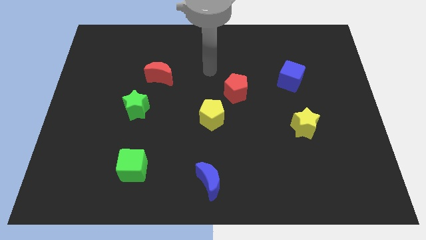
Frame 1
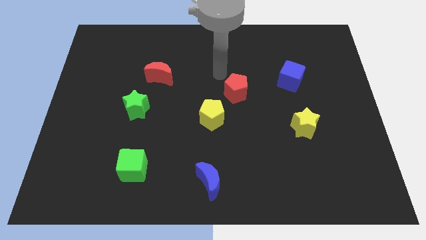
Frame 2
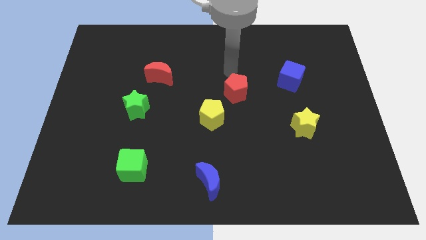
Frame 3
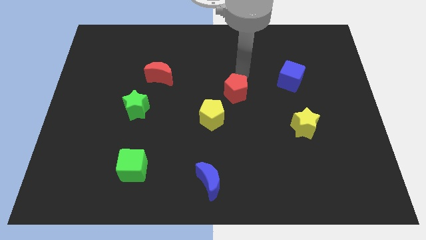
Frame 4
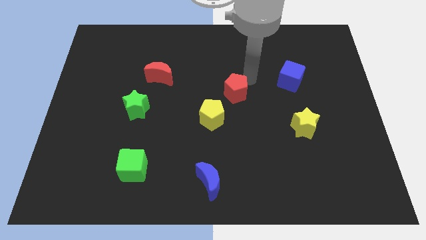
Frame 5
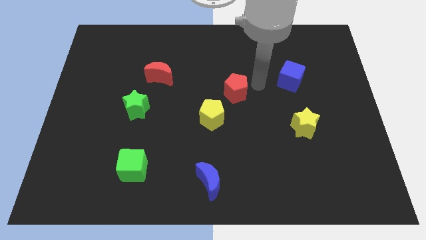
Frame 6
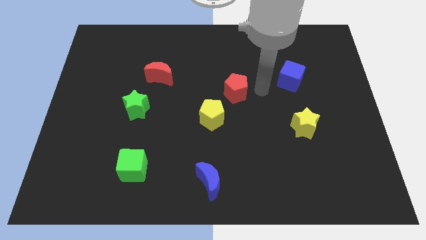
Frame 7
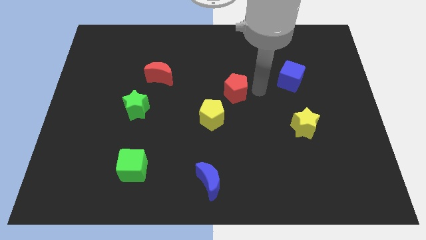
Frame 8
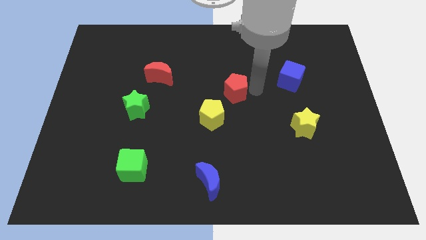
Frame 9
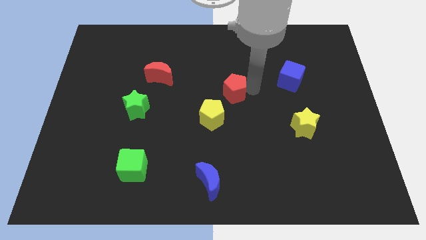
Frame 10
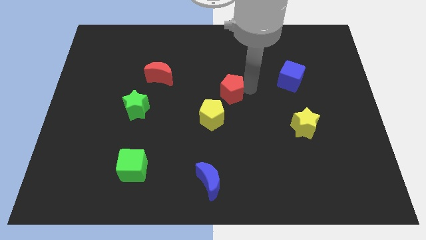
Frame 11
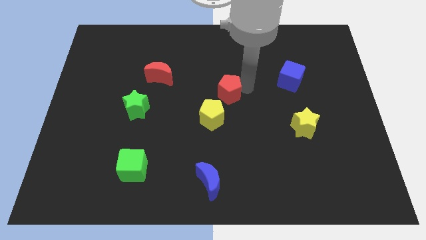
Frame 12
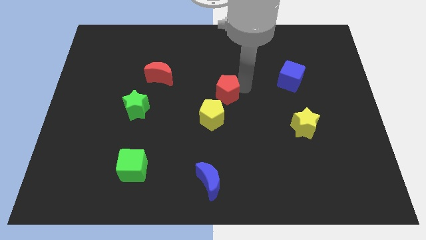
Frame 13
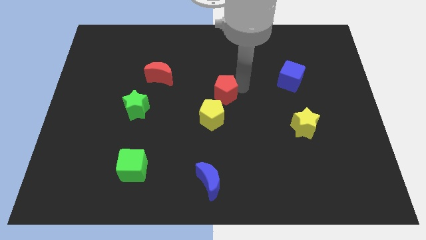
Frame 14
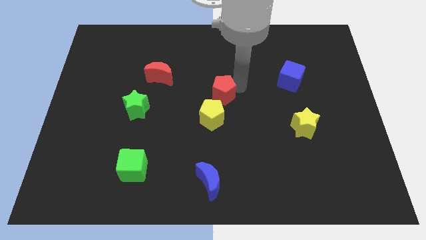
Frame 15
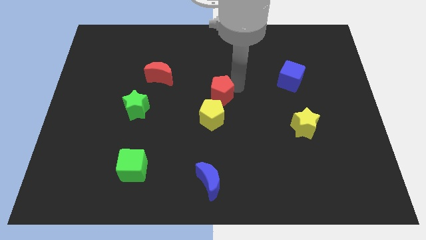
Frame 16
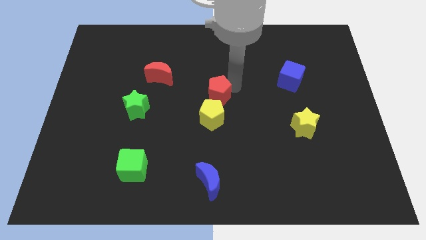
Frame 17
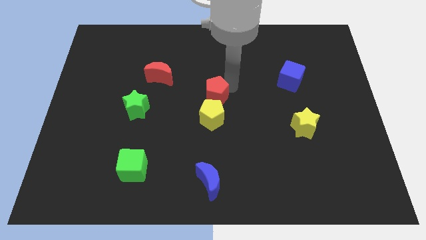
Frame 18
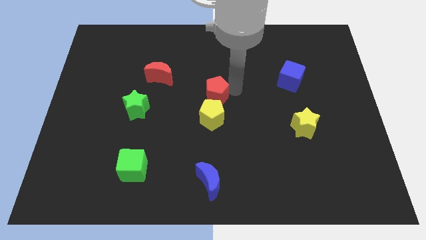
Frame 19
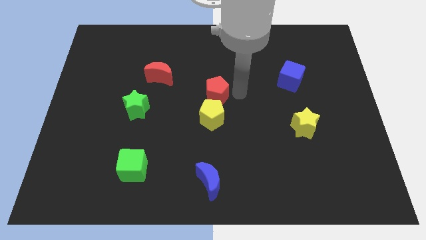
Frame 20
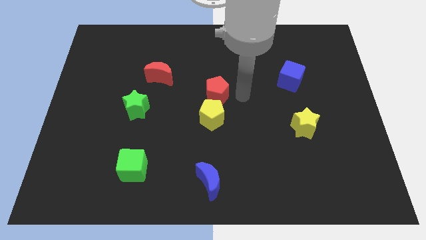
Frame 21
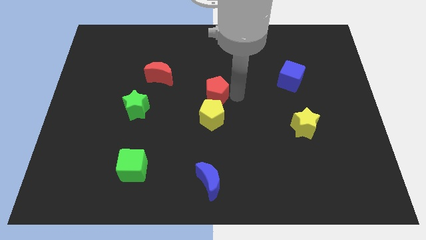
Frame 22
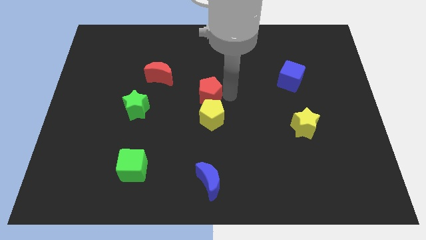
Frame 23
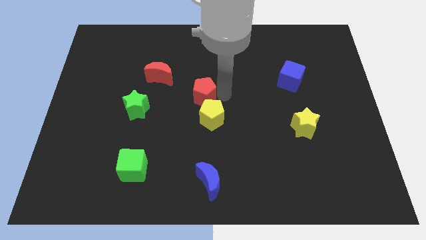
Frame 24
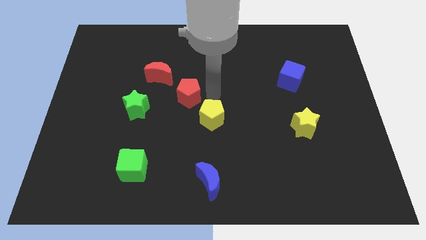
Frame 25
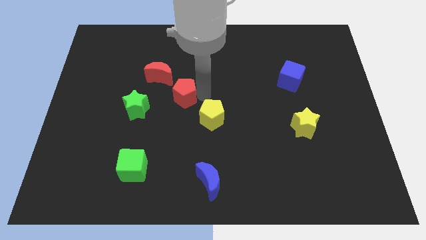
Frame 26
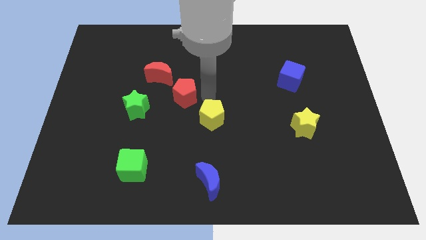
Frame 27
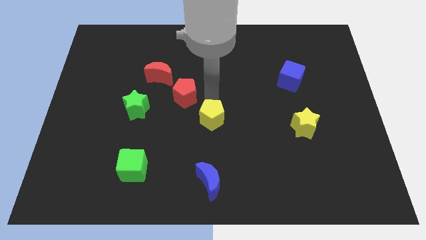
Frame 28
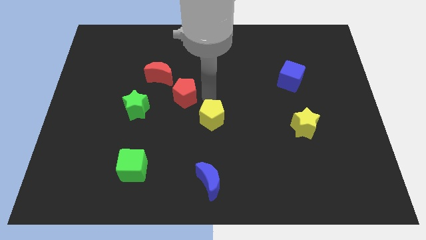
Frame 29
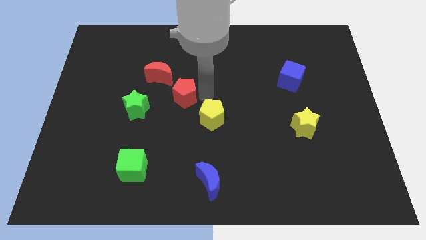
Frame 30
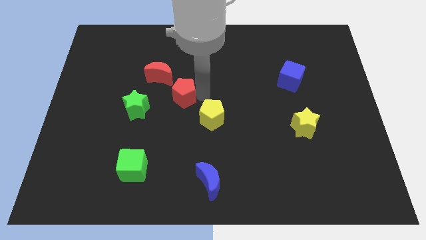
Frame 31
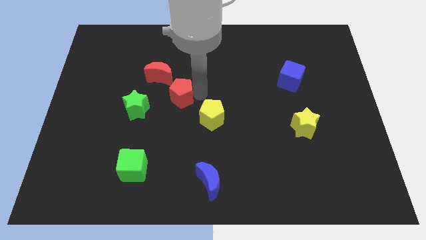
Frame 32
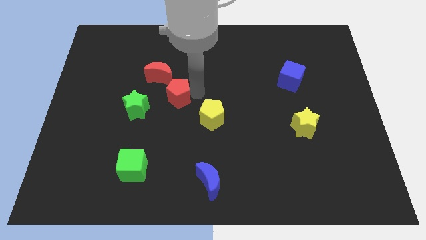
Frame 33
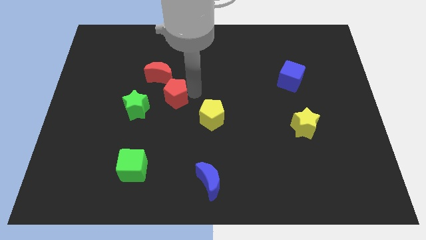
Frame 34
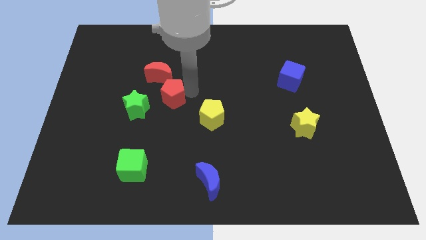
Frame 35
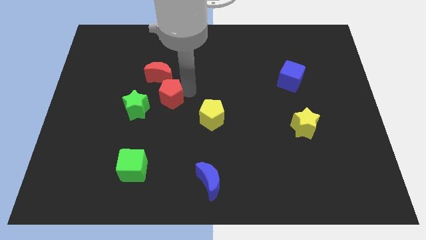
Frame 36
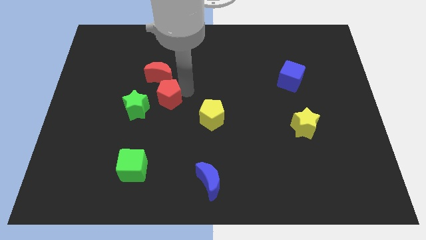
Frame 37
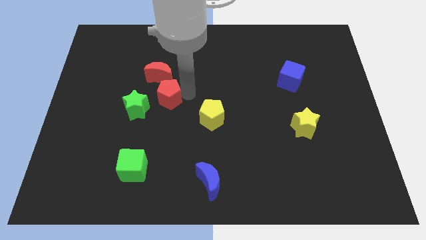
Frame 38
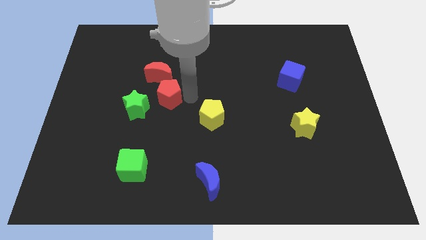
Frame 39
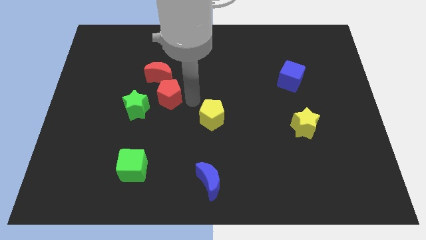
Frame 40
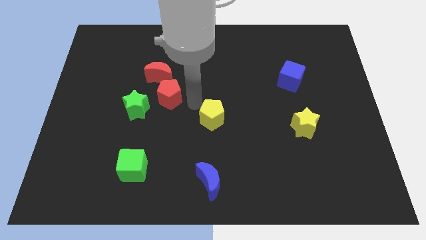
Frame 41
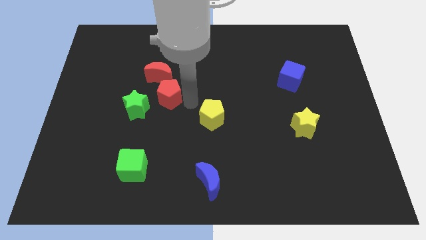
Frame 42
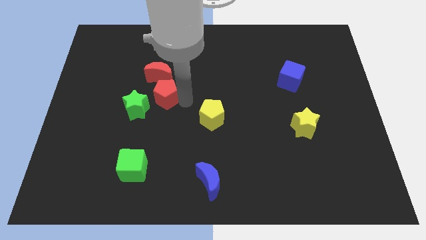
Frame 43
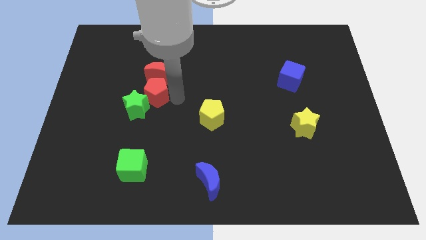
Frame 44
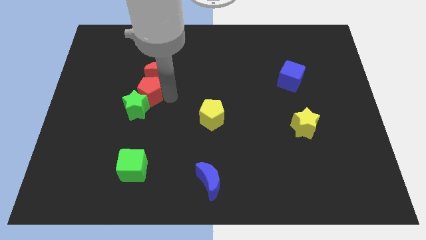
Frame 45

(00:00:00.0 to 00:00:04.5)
push the red pentagon left

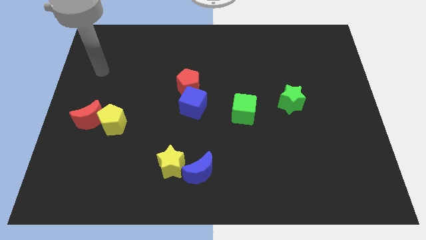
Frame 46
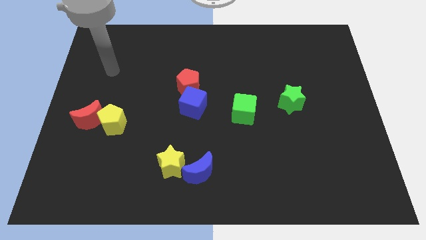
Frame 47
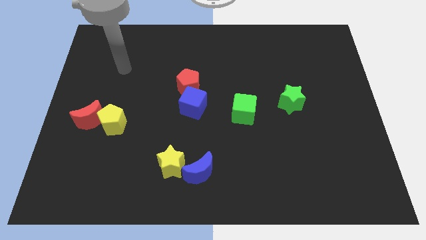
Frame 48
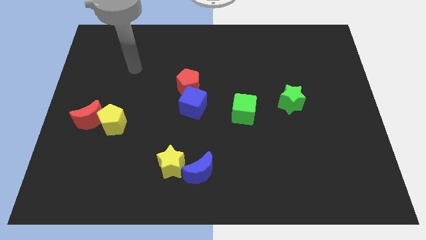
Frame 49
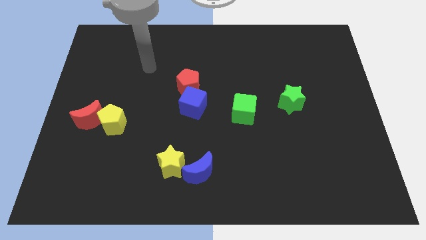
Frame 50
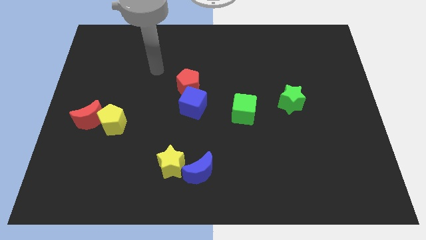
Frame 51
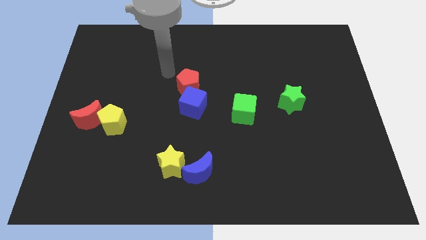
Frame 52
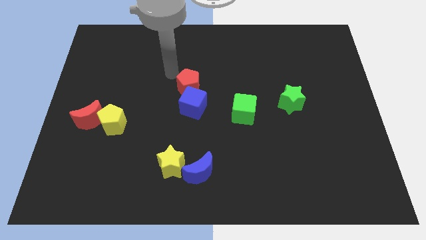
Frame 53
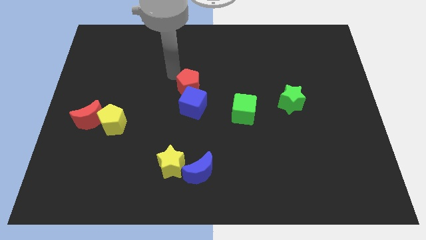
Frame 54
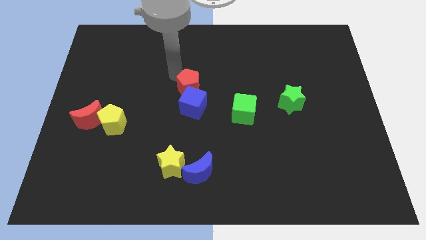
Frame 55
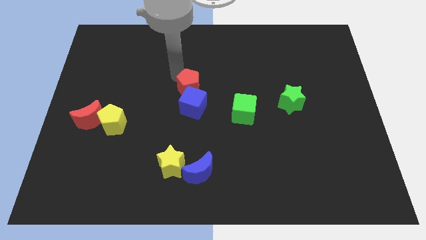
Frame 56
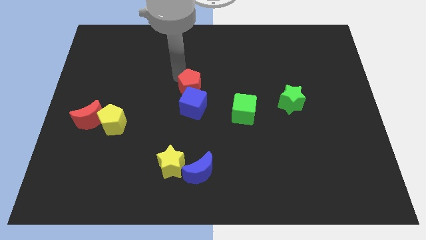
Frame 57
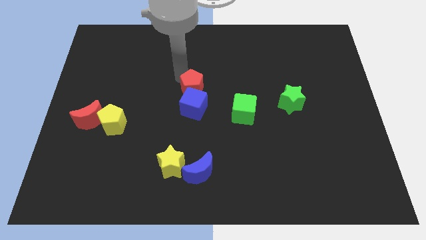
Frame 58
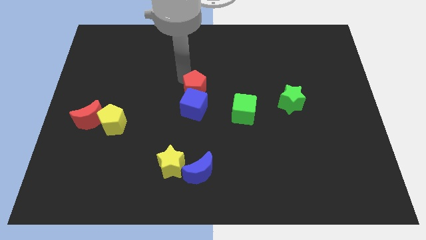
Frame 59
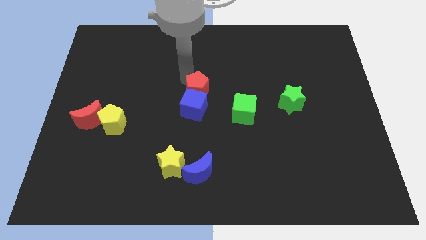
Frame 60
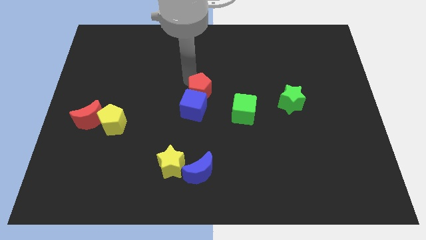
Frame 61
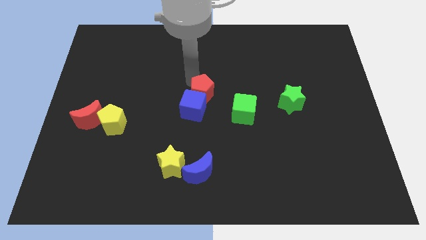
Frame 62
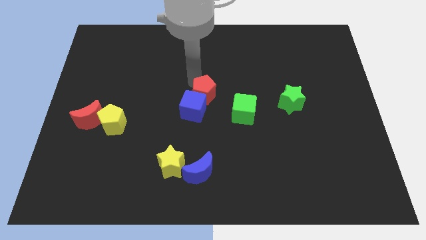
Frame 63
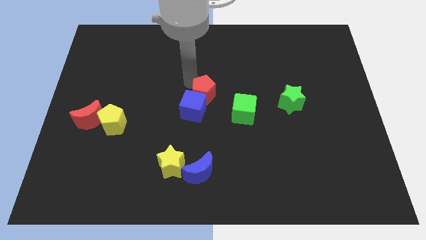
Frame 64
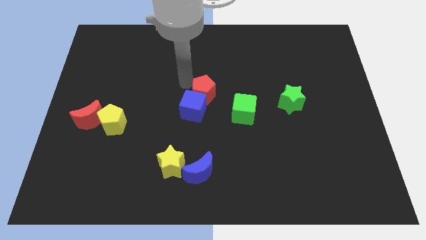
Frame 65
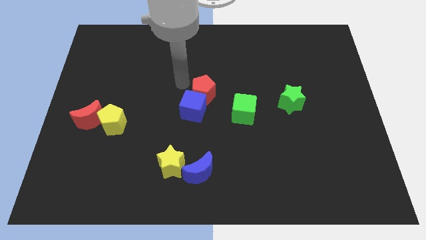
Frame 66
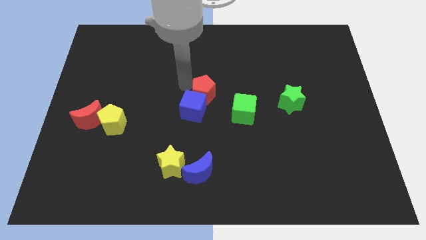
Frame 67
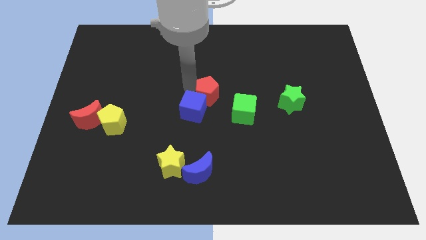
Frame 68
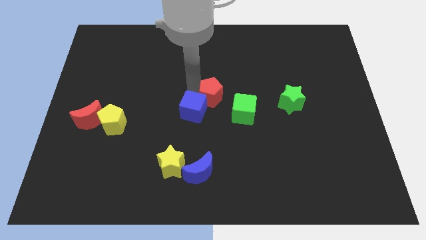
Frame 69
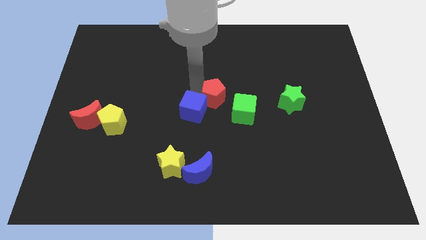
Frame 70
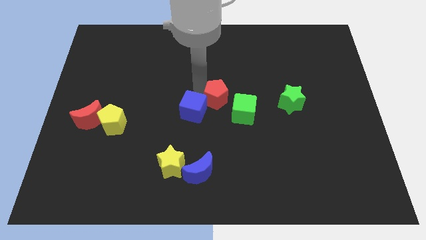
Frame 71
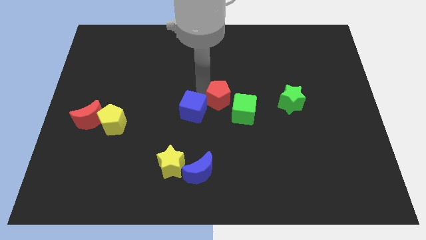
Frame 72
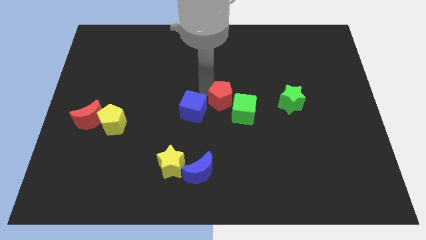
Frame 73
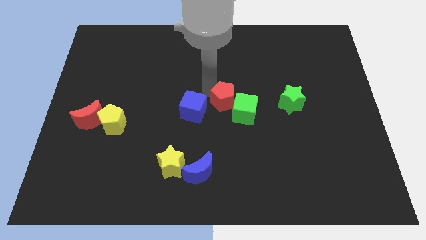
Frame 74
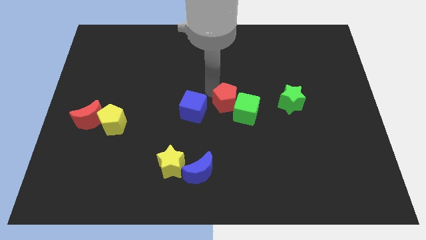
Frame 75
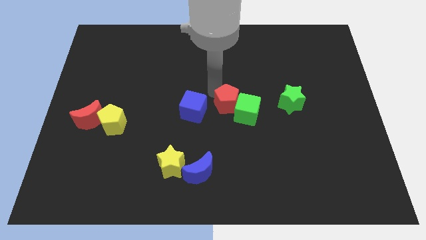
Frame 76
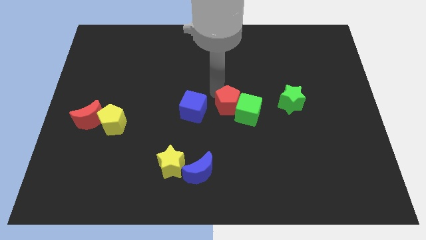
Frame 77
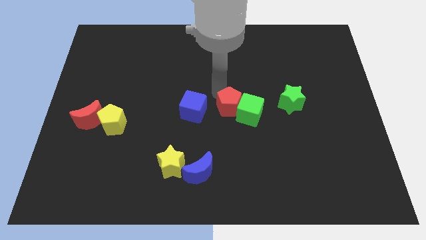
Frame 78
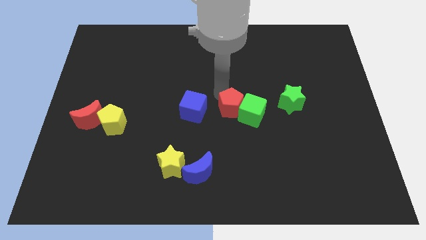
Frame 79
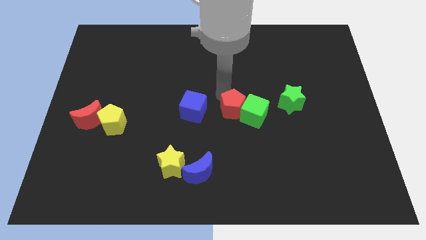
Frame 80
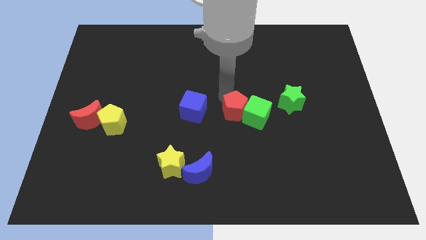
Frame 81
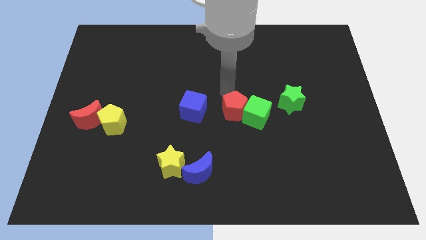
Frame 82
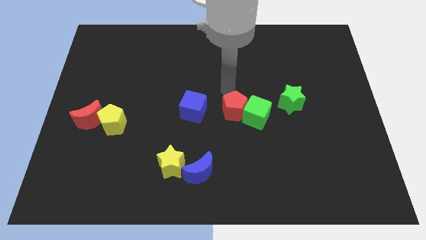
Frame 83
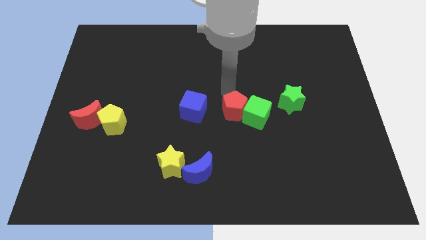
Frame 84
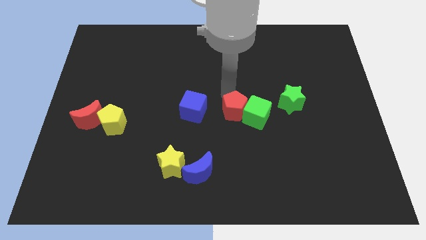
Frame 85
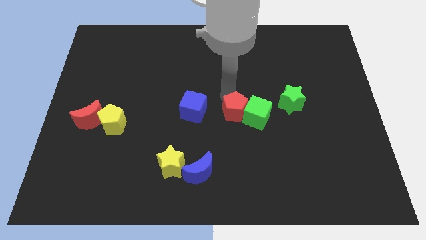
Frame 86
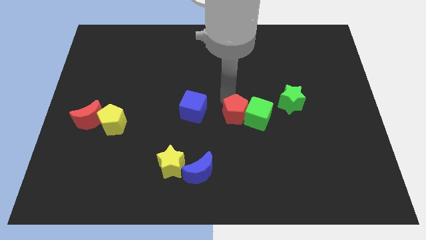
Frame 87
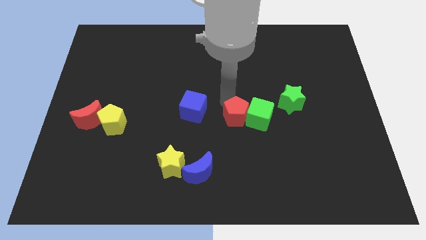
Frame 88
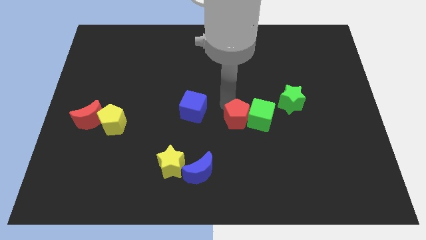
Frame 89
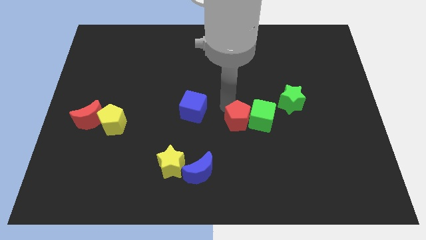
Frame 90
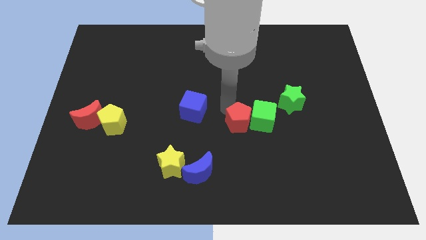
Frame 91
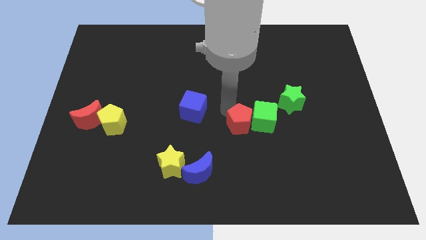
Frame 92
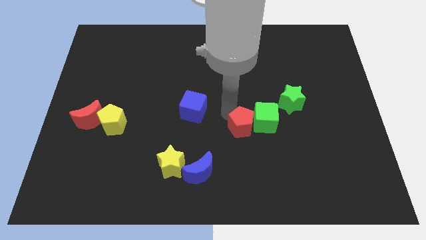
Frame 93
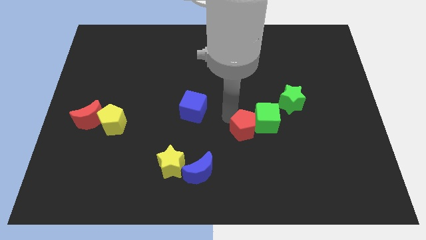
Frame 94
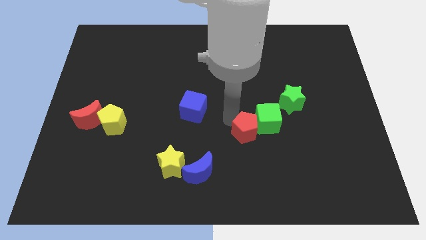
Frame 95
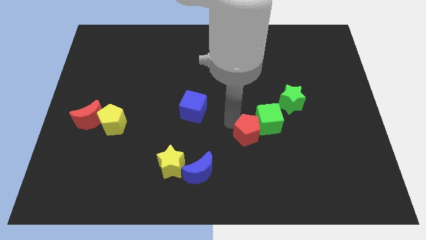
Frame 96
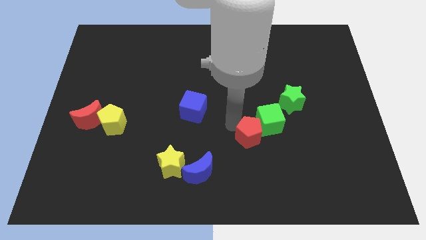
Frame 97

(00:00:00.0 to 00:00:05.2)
slide the red pentagon down and then right
